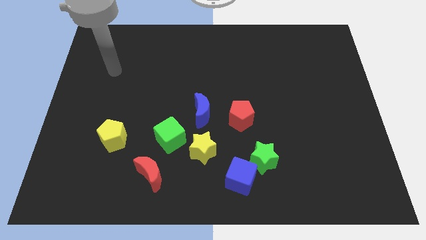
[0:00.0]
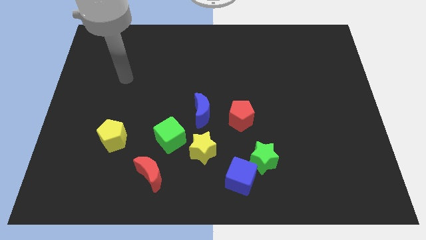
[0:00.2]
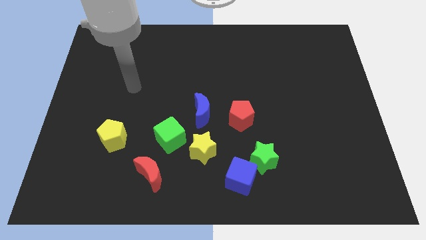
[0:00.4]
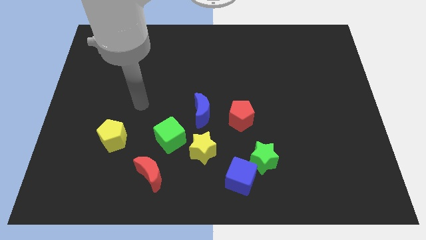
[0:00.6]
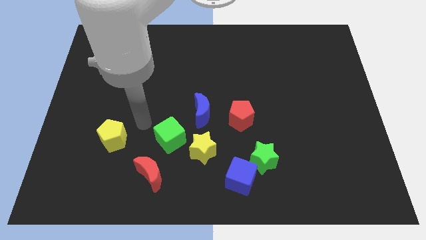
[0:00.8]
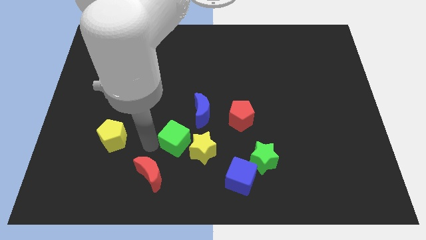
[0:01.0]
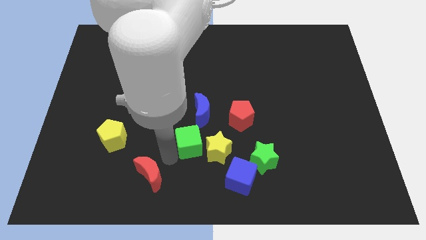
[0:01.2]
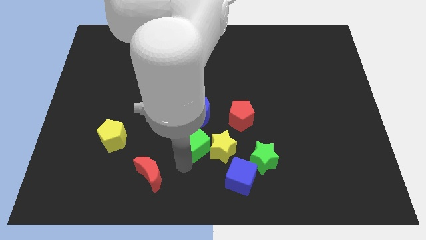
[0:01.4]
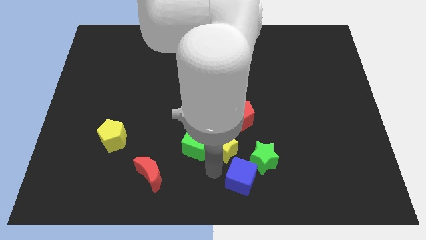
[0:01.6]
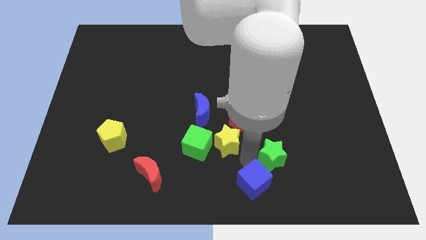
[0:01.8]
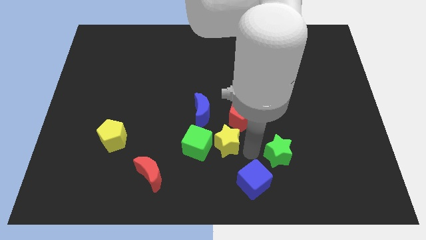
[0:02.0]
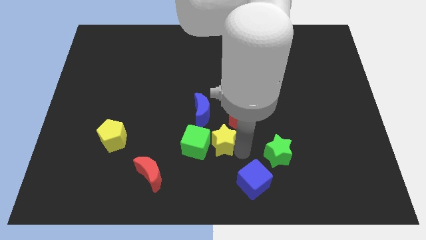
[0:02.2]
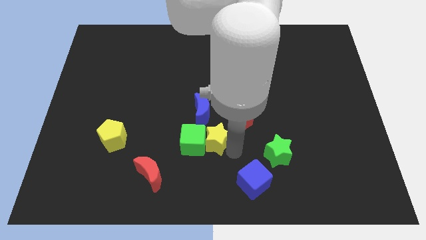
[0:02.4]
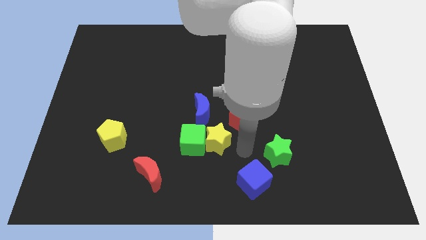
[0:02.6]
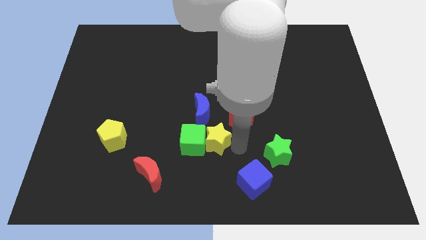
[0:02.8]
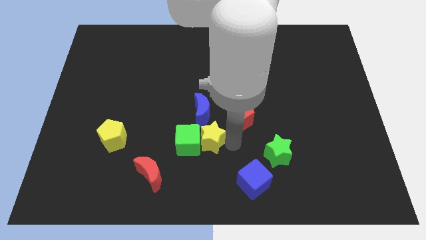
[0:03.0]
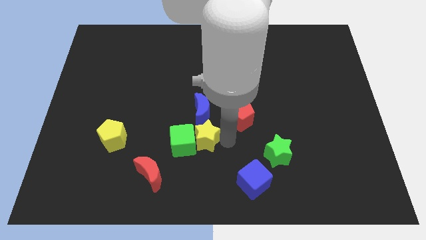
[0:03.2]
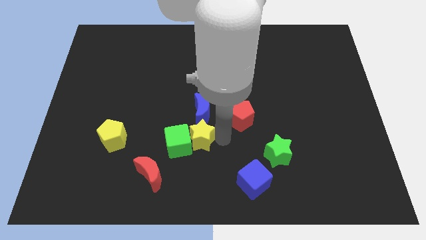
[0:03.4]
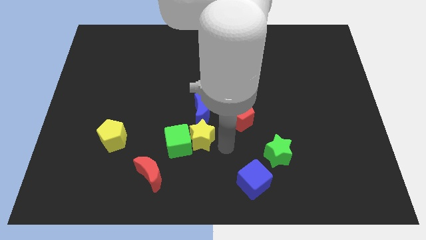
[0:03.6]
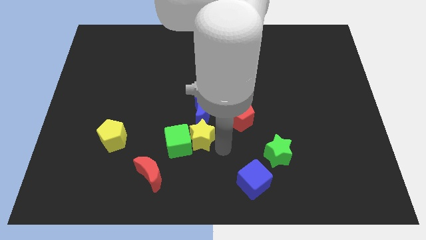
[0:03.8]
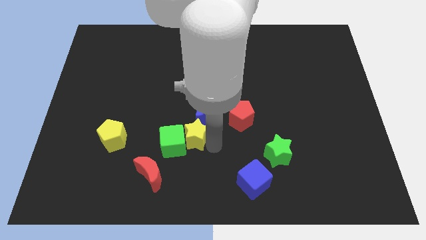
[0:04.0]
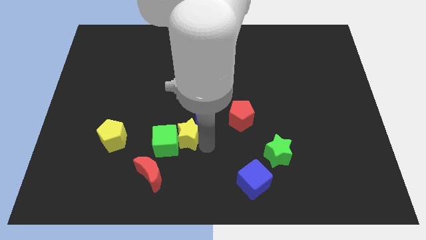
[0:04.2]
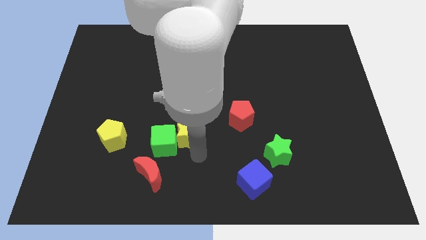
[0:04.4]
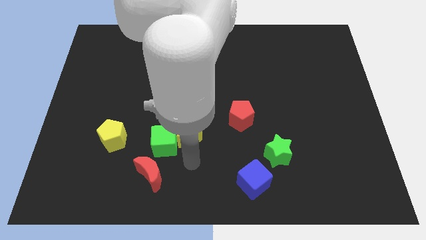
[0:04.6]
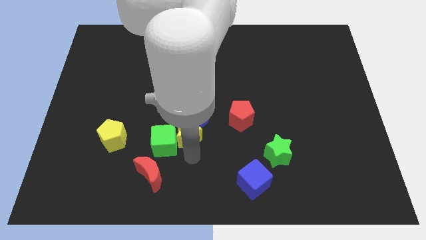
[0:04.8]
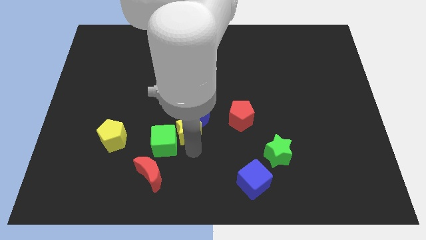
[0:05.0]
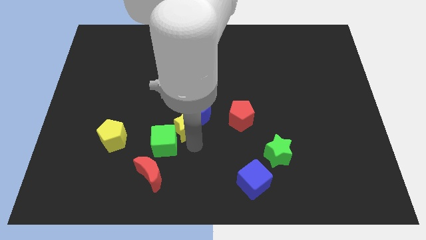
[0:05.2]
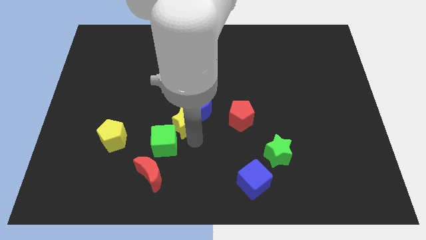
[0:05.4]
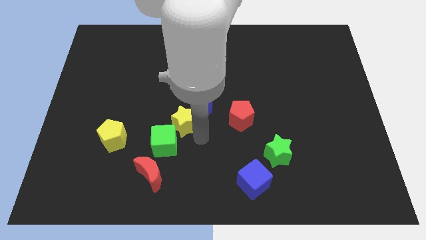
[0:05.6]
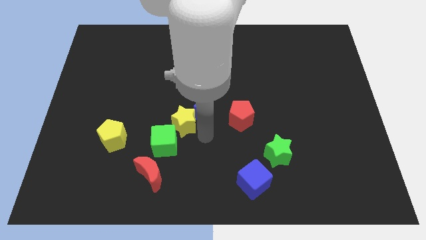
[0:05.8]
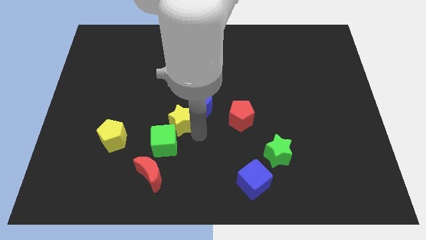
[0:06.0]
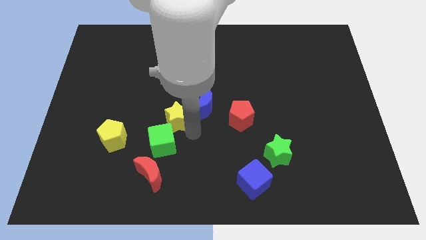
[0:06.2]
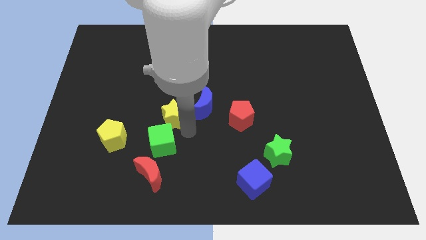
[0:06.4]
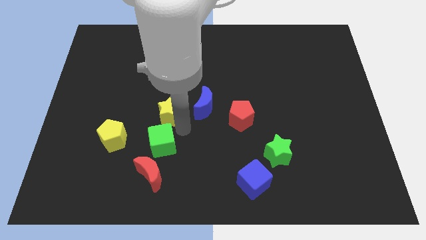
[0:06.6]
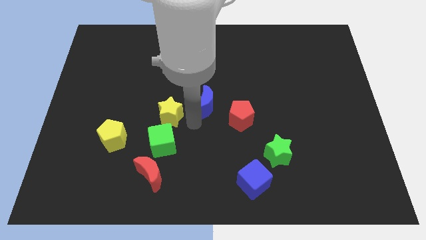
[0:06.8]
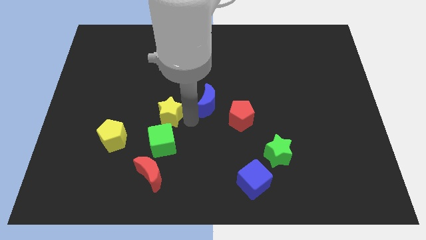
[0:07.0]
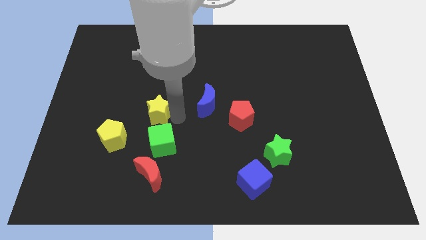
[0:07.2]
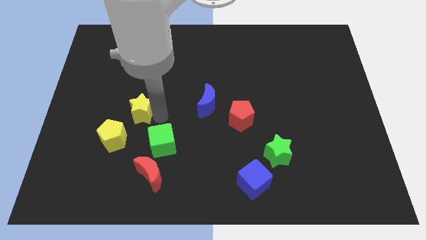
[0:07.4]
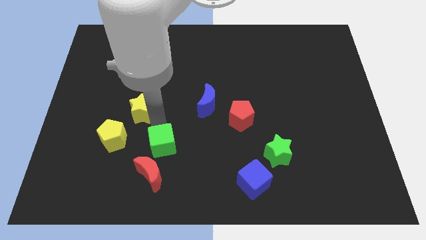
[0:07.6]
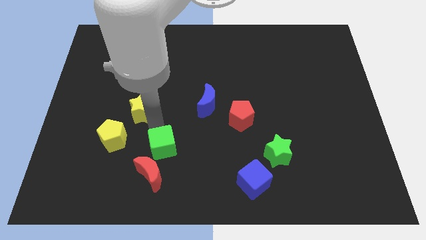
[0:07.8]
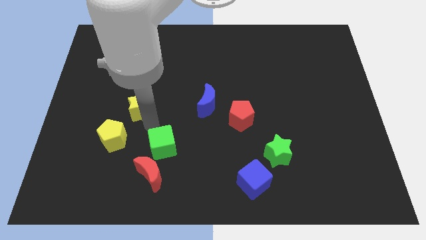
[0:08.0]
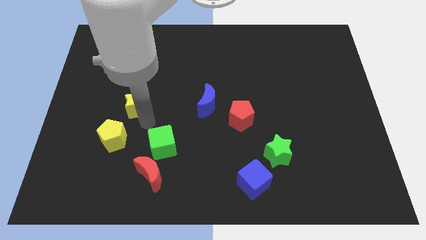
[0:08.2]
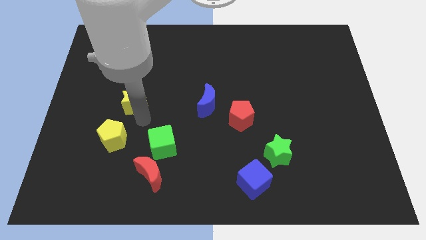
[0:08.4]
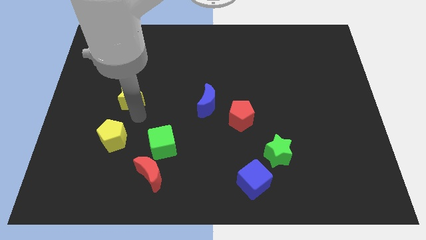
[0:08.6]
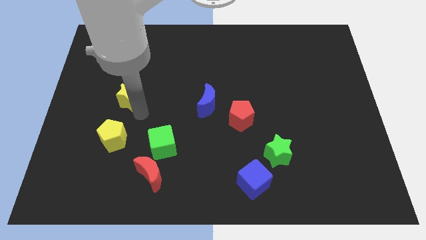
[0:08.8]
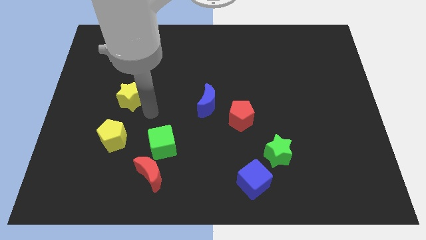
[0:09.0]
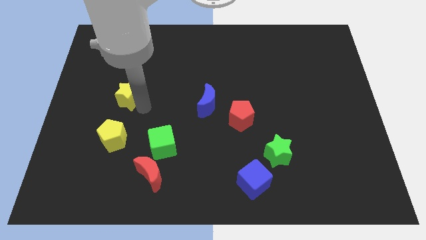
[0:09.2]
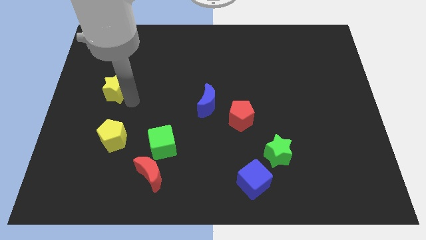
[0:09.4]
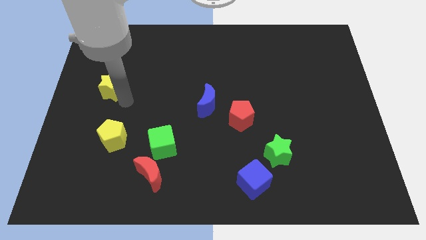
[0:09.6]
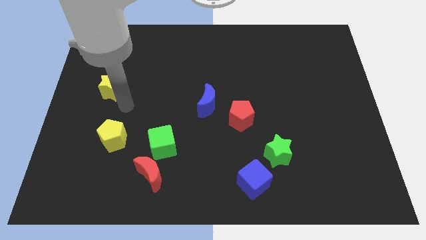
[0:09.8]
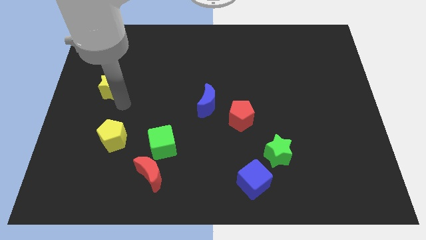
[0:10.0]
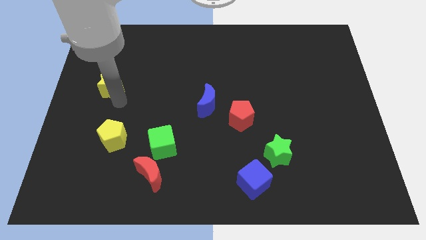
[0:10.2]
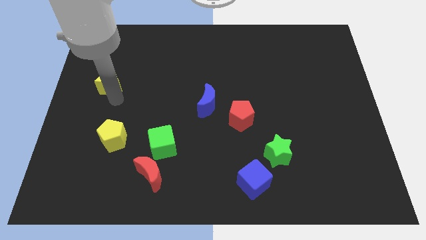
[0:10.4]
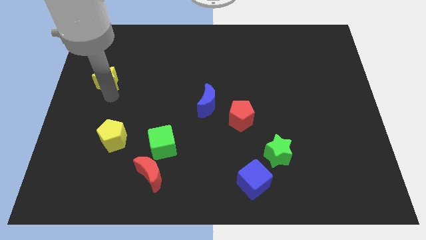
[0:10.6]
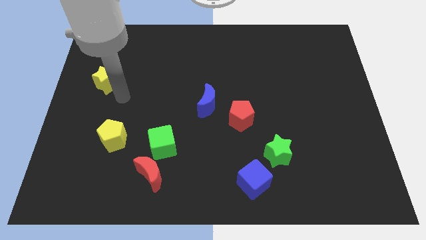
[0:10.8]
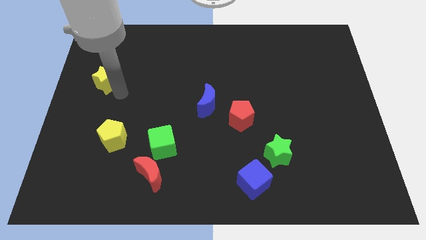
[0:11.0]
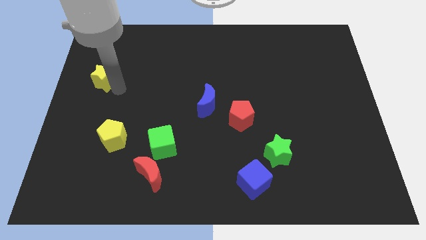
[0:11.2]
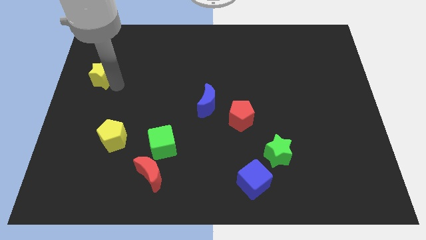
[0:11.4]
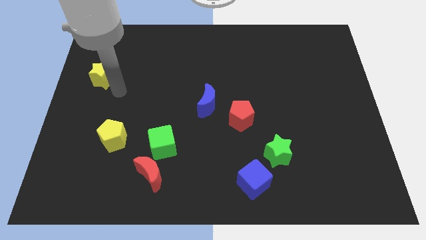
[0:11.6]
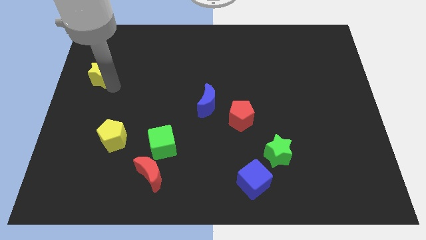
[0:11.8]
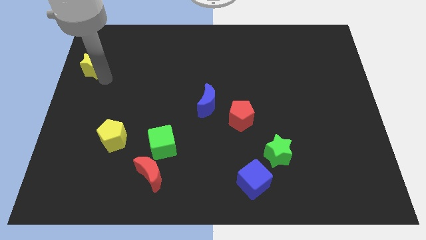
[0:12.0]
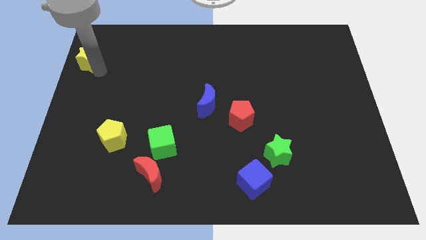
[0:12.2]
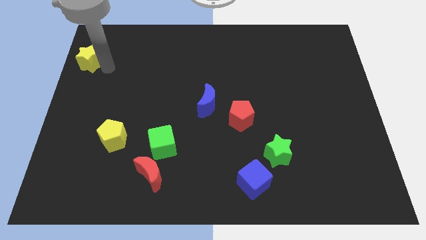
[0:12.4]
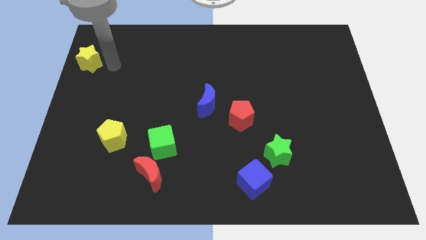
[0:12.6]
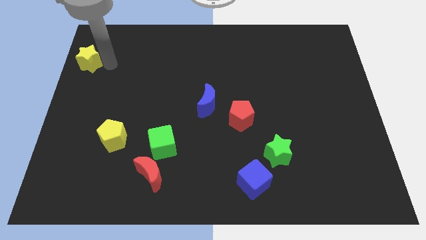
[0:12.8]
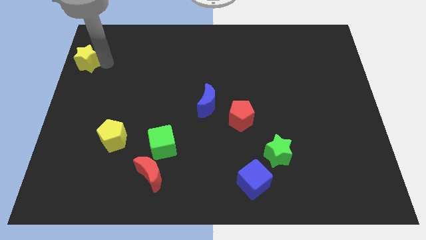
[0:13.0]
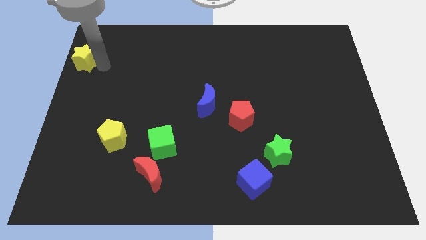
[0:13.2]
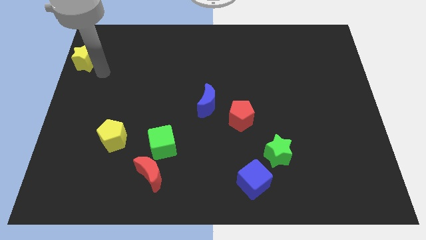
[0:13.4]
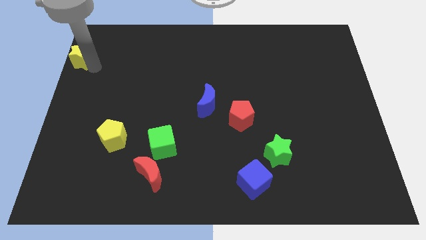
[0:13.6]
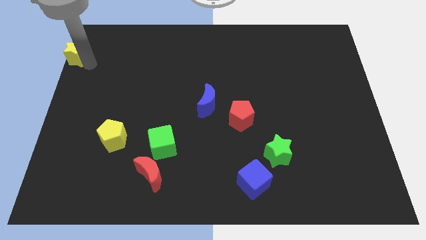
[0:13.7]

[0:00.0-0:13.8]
slide the yellow star to the upper left corner
